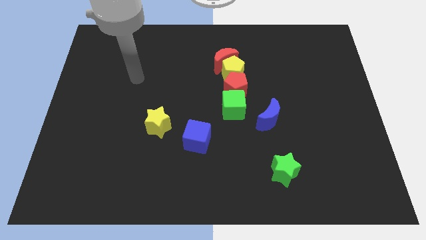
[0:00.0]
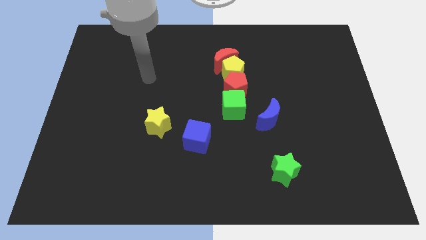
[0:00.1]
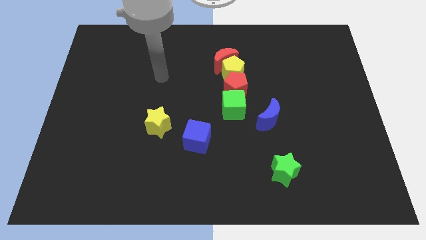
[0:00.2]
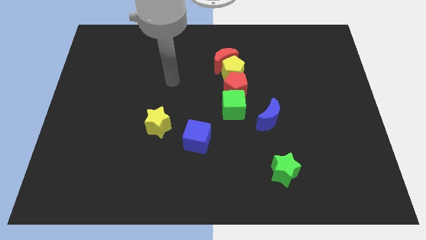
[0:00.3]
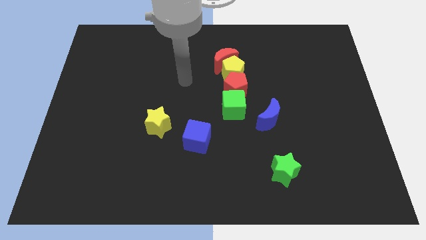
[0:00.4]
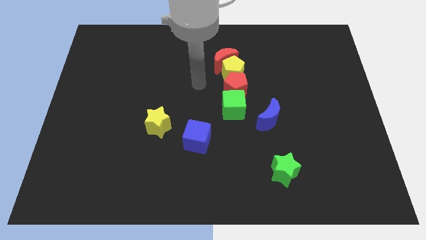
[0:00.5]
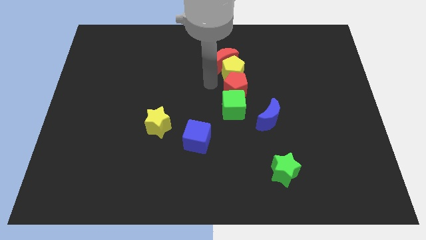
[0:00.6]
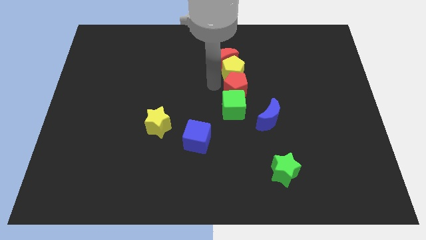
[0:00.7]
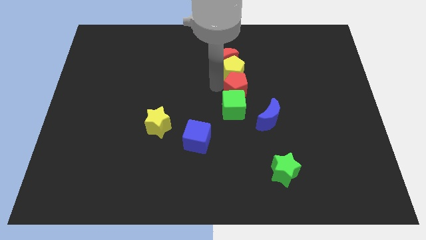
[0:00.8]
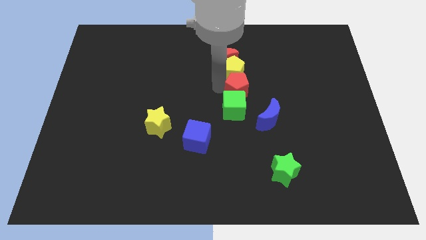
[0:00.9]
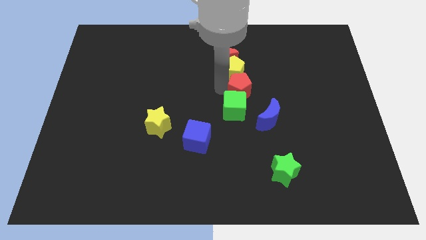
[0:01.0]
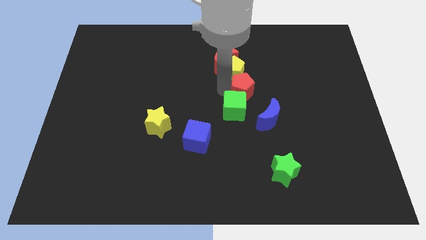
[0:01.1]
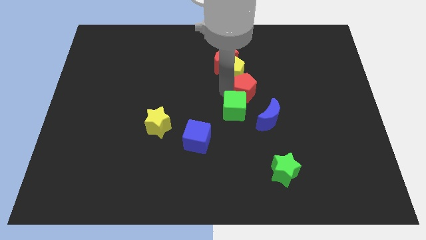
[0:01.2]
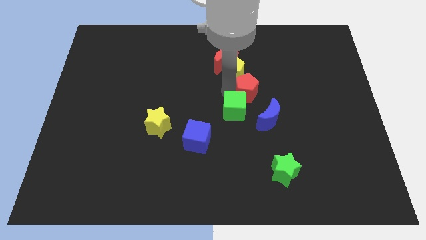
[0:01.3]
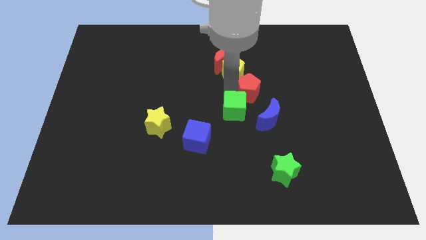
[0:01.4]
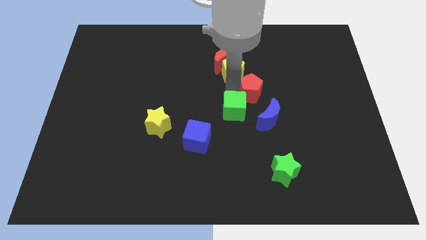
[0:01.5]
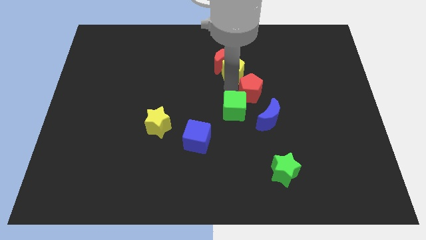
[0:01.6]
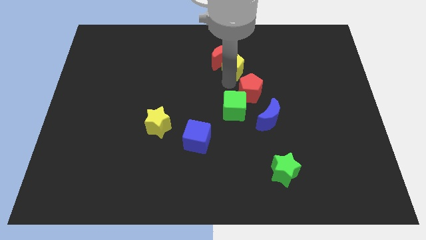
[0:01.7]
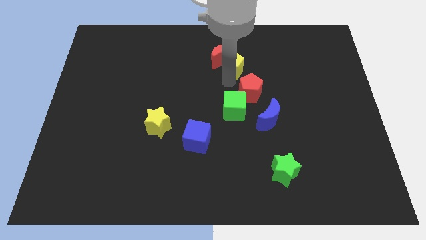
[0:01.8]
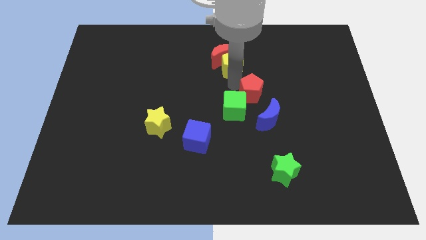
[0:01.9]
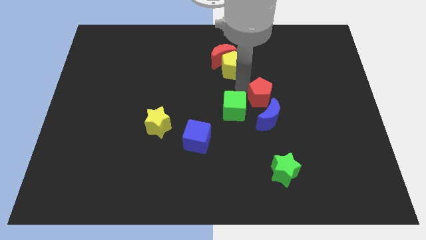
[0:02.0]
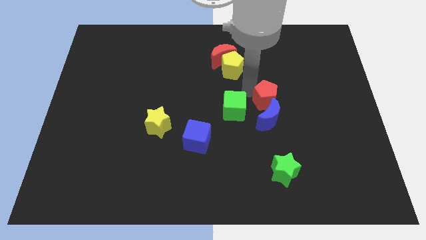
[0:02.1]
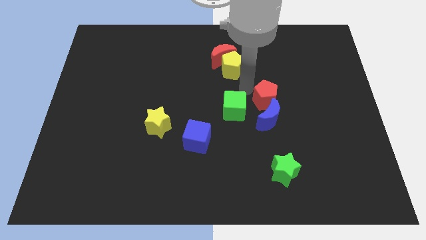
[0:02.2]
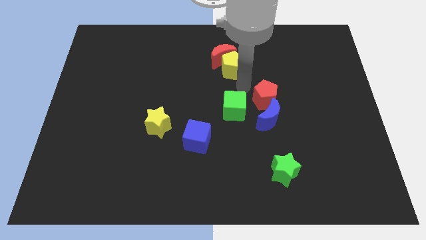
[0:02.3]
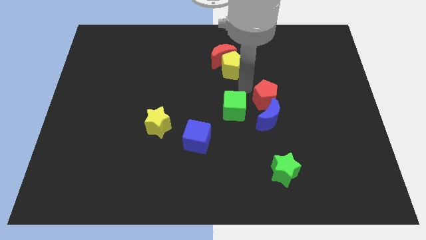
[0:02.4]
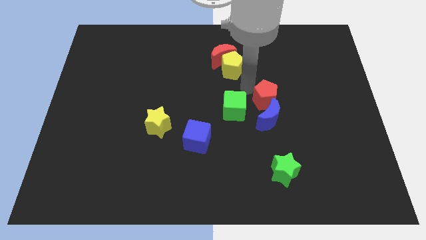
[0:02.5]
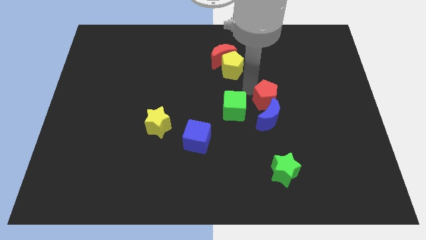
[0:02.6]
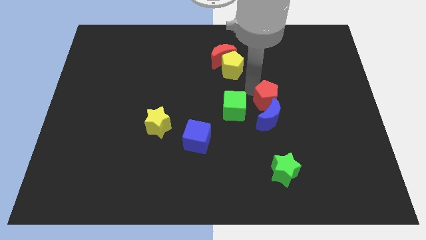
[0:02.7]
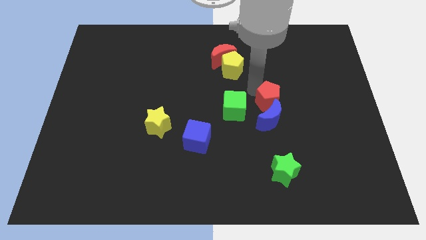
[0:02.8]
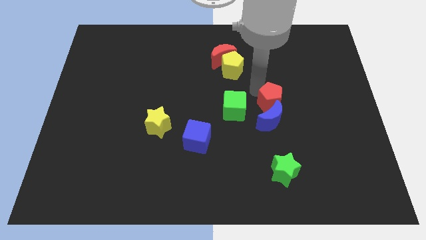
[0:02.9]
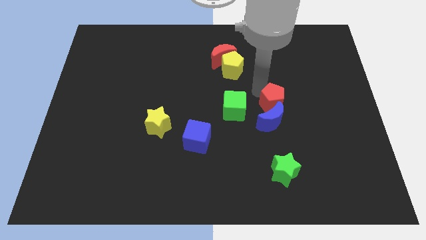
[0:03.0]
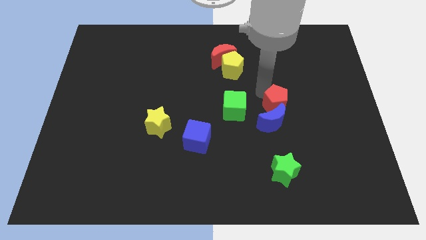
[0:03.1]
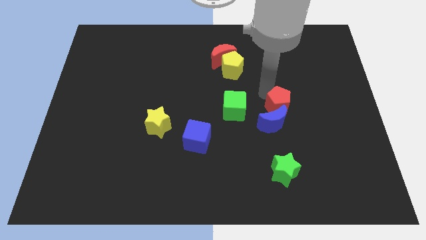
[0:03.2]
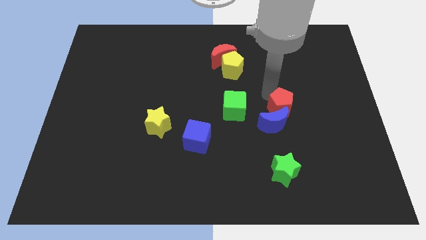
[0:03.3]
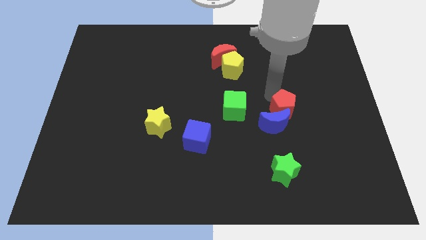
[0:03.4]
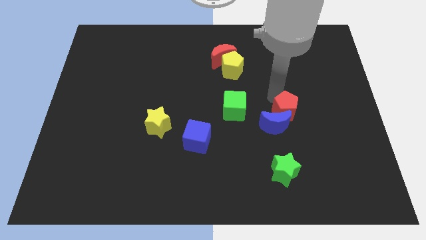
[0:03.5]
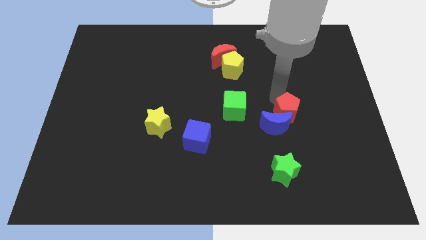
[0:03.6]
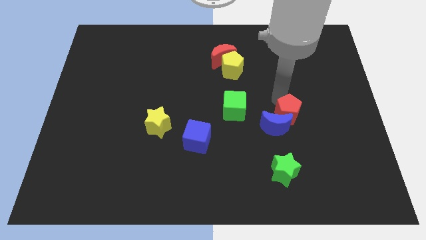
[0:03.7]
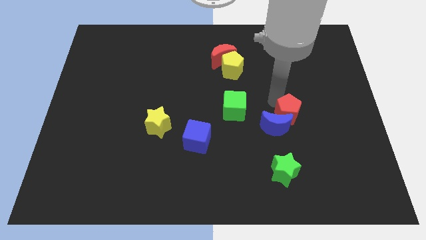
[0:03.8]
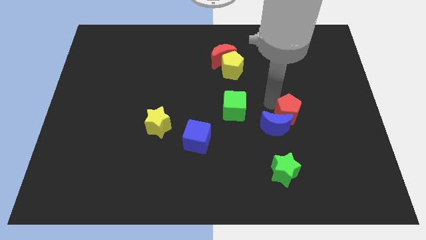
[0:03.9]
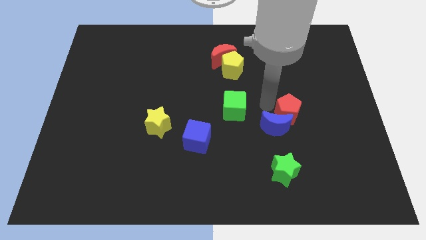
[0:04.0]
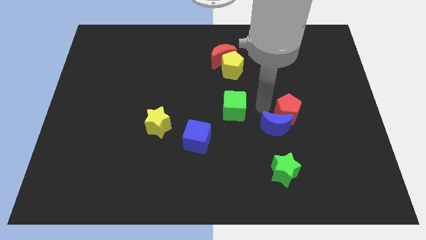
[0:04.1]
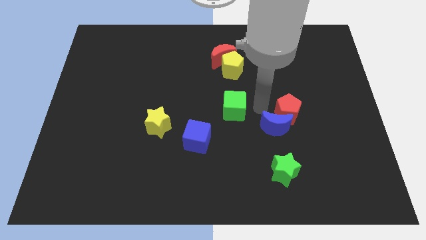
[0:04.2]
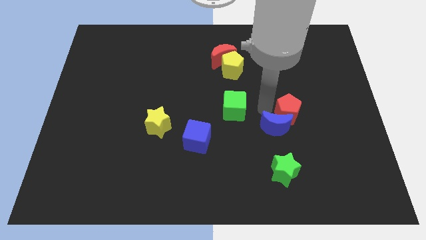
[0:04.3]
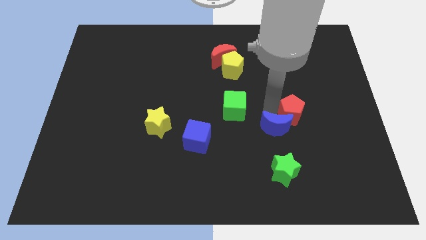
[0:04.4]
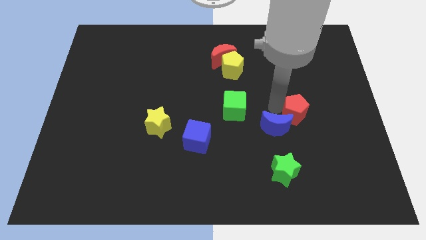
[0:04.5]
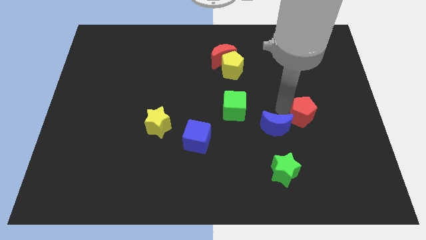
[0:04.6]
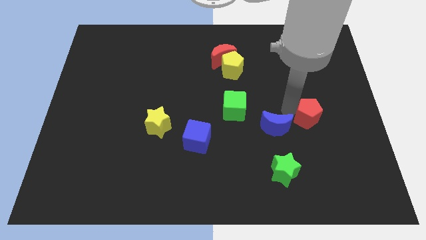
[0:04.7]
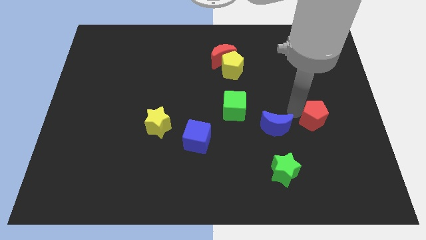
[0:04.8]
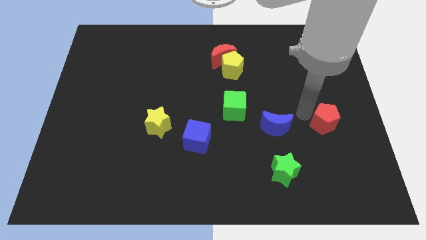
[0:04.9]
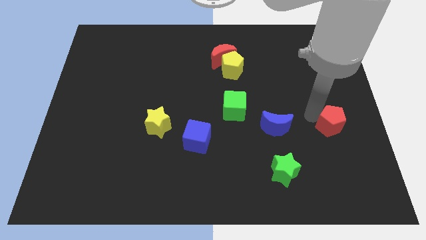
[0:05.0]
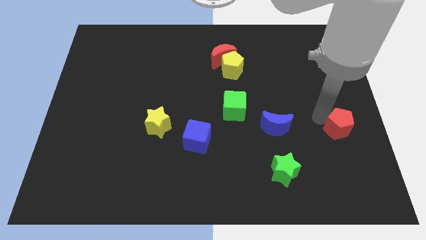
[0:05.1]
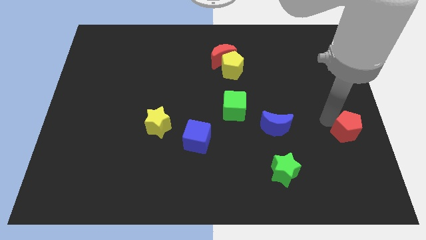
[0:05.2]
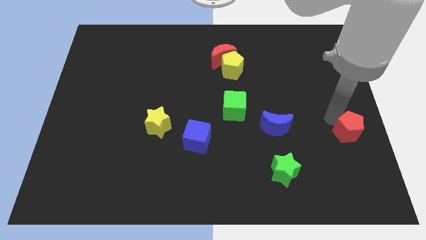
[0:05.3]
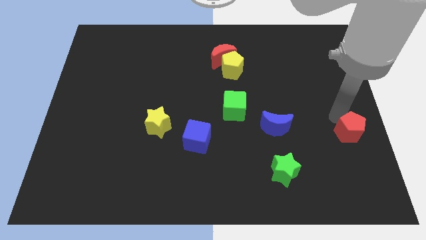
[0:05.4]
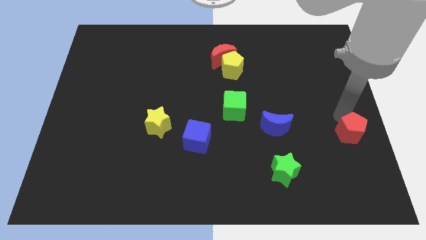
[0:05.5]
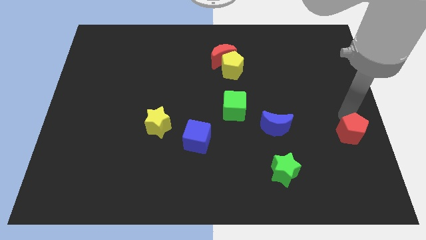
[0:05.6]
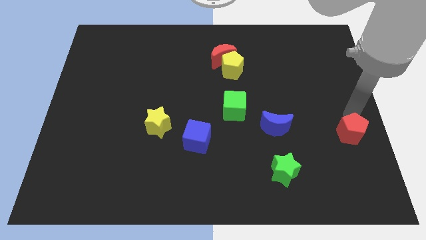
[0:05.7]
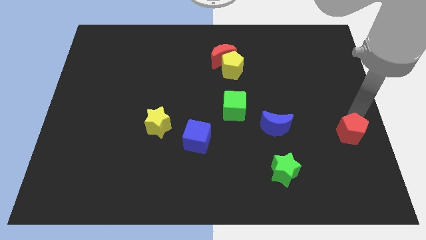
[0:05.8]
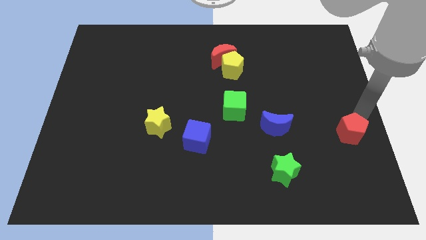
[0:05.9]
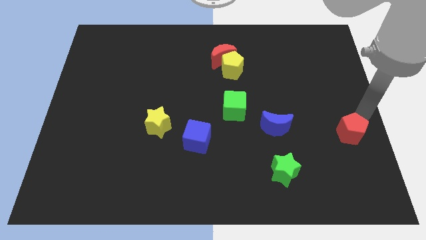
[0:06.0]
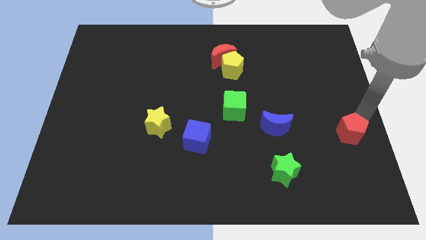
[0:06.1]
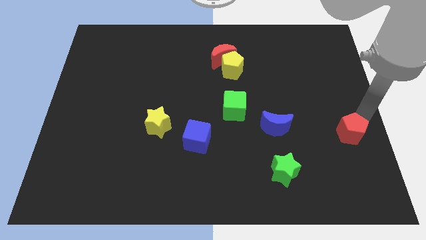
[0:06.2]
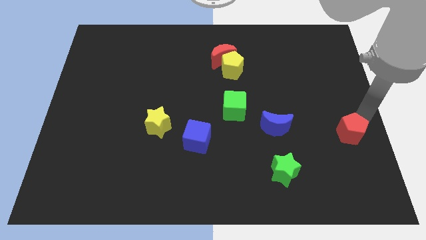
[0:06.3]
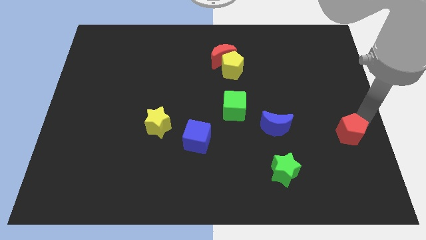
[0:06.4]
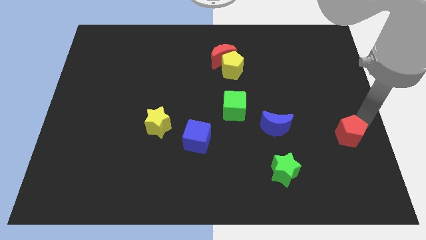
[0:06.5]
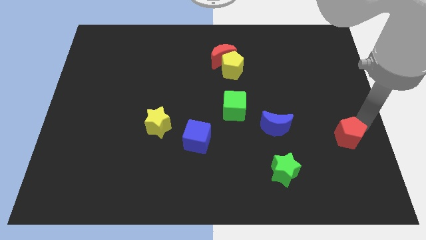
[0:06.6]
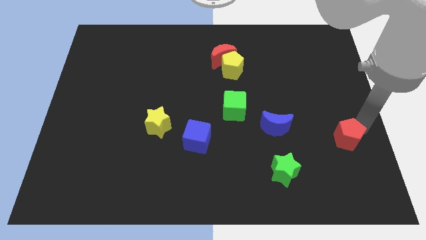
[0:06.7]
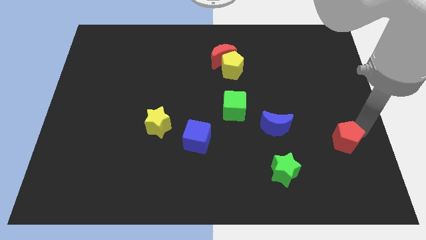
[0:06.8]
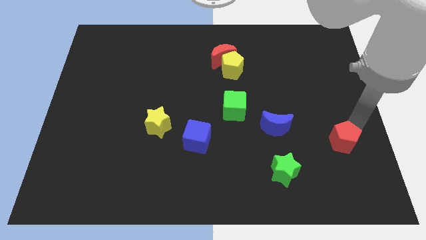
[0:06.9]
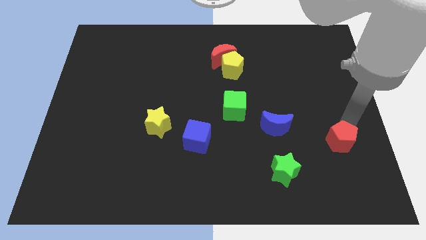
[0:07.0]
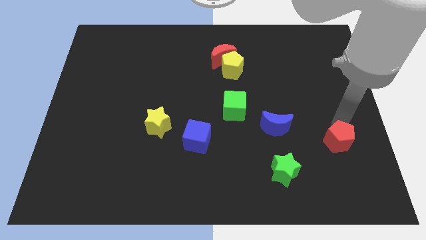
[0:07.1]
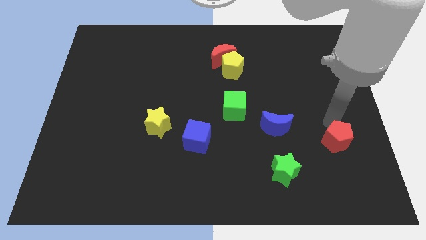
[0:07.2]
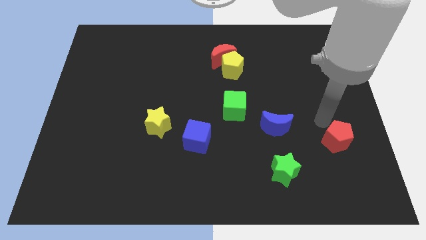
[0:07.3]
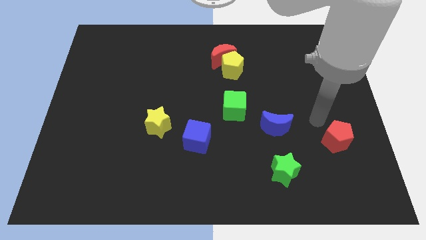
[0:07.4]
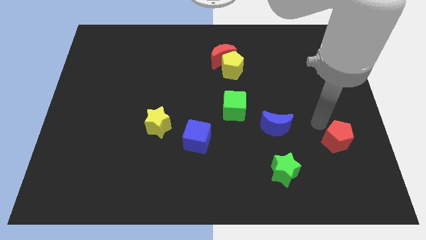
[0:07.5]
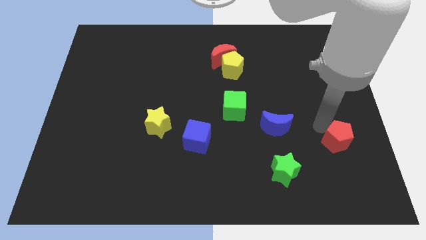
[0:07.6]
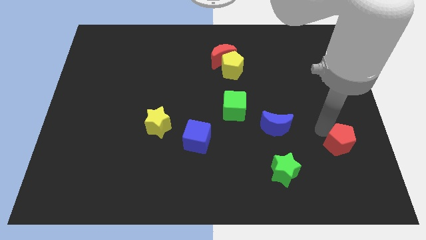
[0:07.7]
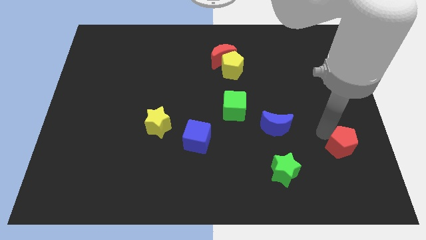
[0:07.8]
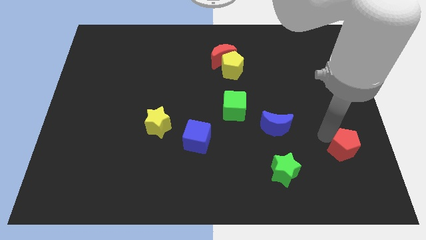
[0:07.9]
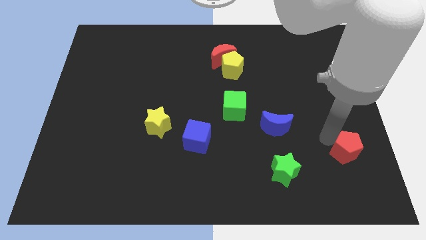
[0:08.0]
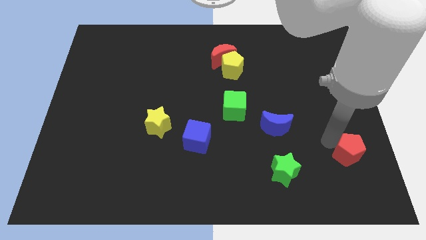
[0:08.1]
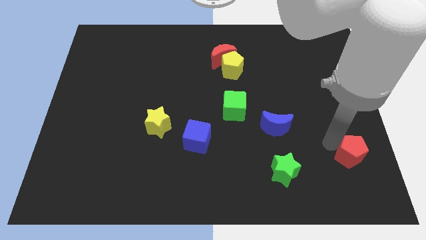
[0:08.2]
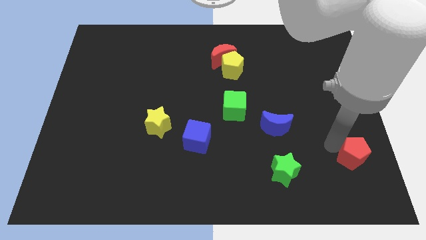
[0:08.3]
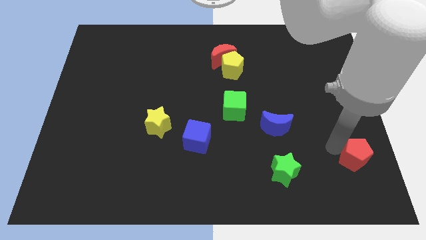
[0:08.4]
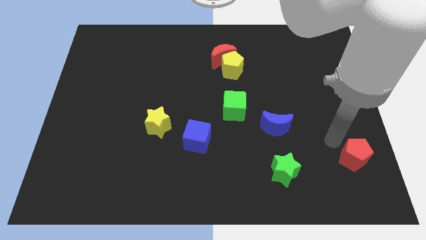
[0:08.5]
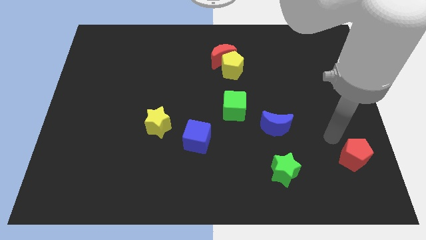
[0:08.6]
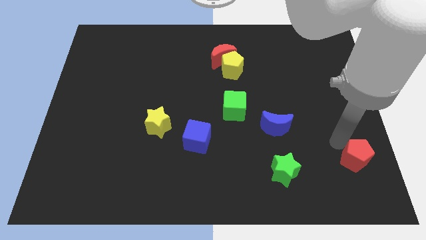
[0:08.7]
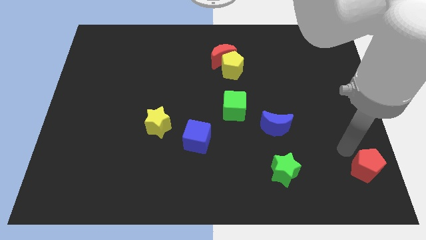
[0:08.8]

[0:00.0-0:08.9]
push the red pentagon to the bottom right
